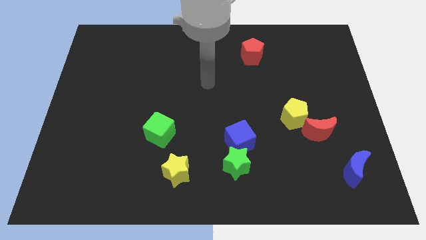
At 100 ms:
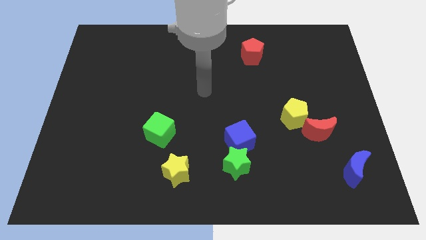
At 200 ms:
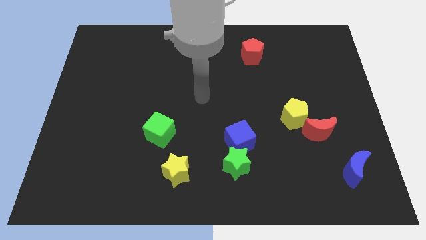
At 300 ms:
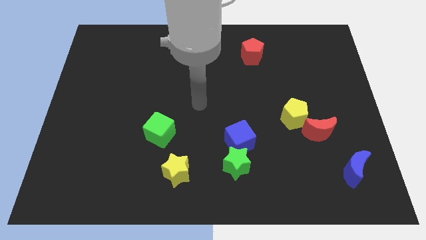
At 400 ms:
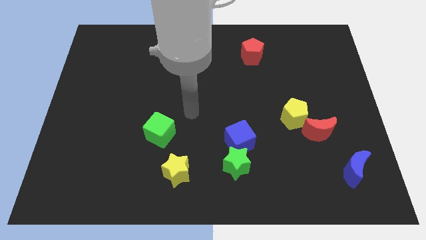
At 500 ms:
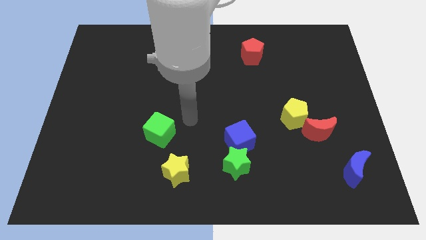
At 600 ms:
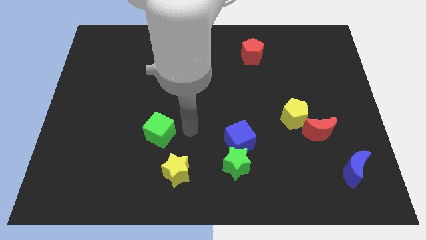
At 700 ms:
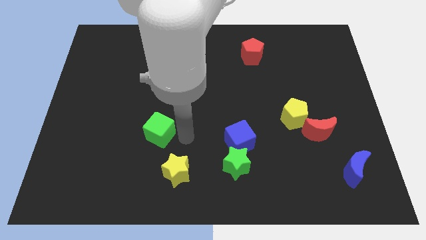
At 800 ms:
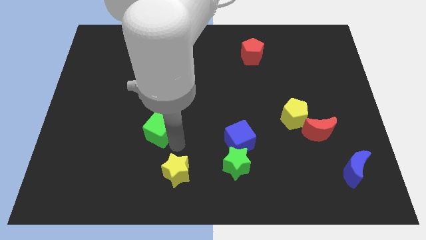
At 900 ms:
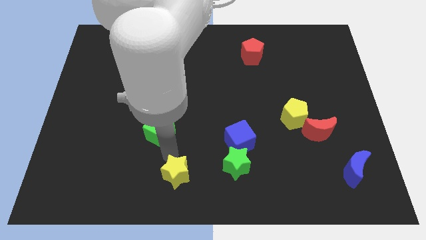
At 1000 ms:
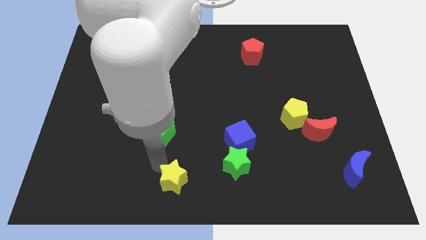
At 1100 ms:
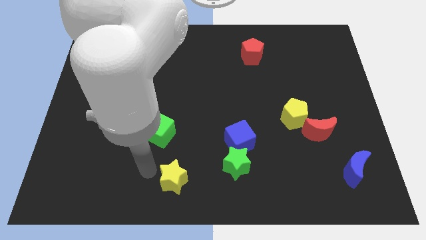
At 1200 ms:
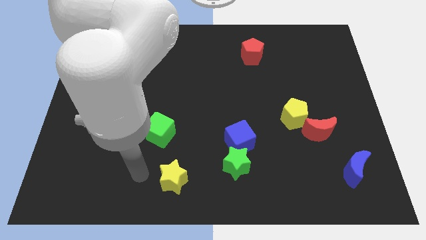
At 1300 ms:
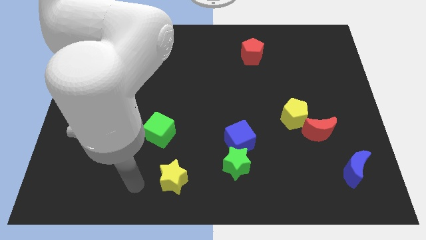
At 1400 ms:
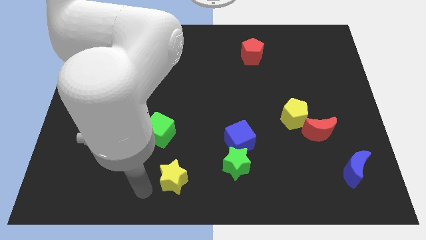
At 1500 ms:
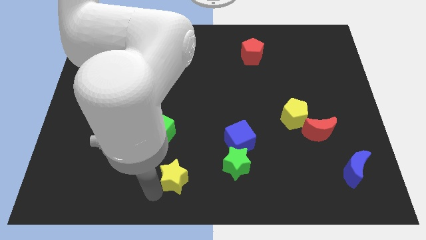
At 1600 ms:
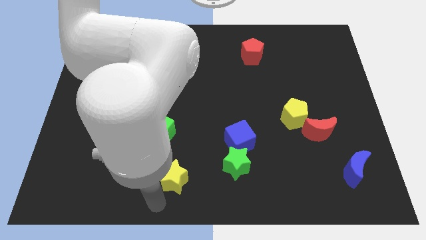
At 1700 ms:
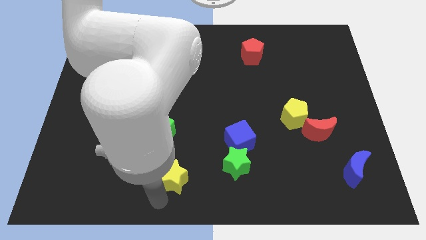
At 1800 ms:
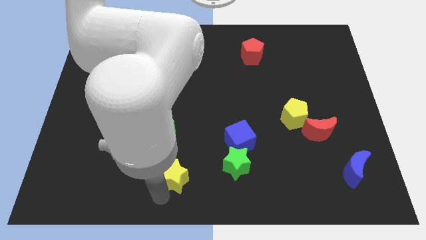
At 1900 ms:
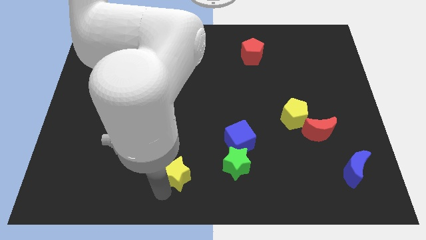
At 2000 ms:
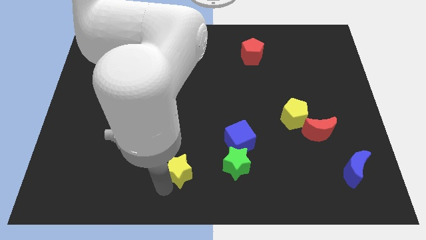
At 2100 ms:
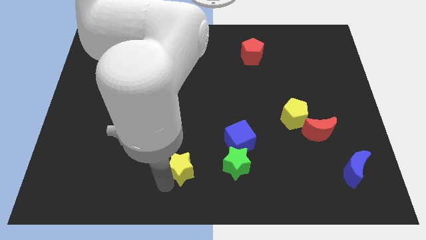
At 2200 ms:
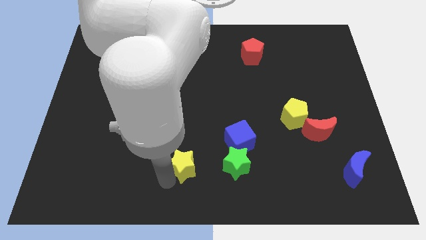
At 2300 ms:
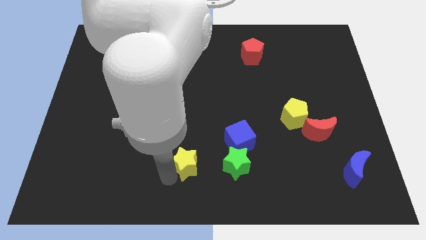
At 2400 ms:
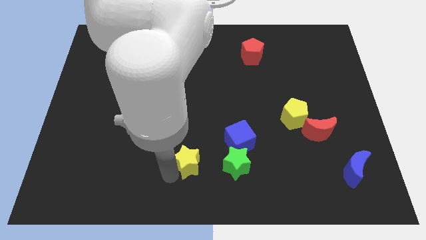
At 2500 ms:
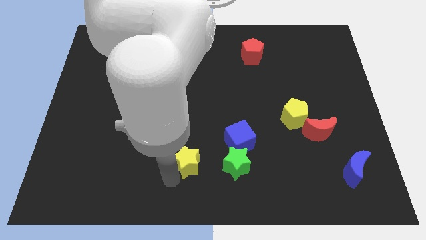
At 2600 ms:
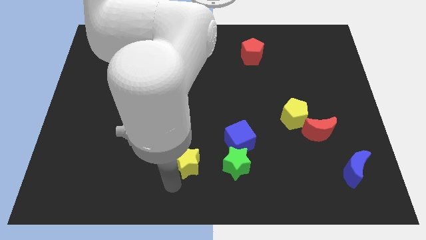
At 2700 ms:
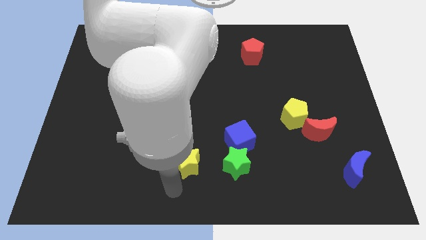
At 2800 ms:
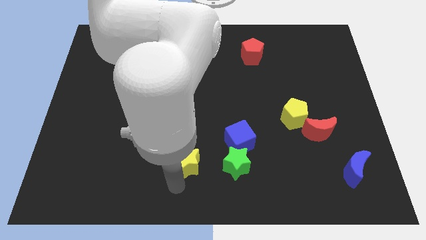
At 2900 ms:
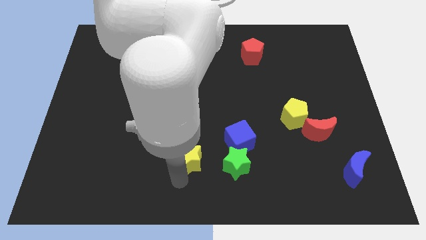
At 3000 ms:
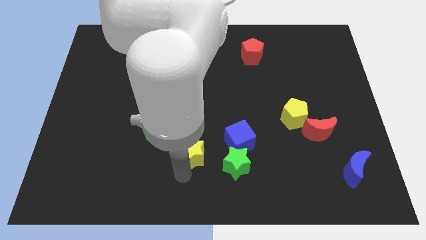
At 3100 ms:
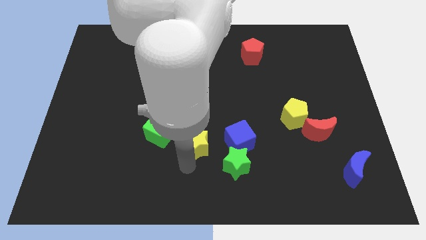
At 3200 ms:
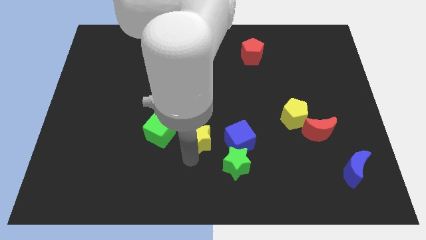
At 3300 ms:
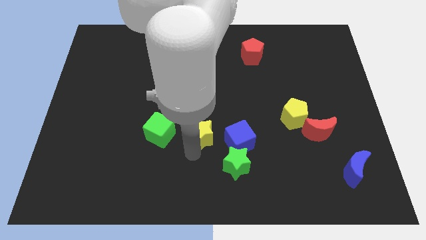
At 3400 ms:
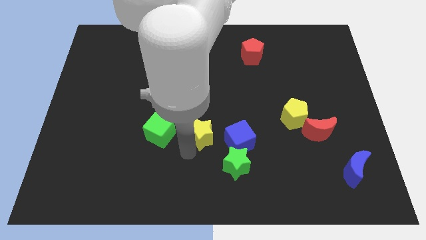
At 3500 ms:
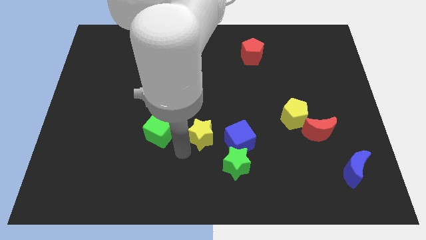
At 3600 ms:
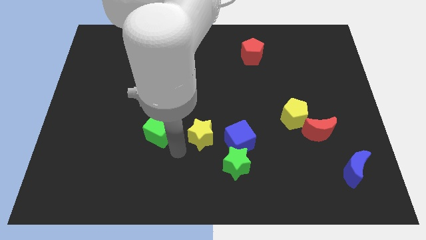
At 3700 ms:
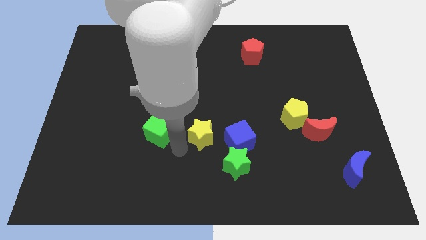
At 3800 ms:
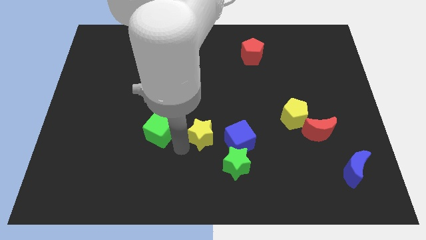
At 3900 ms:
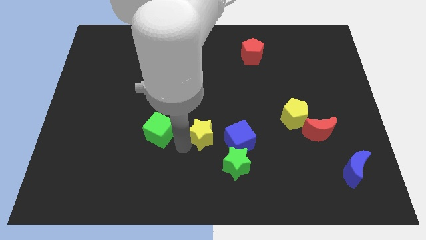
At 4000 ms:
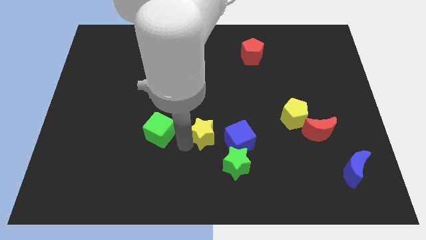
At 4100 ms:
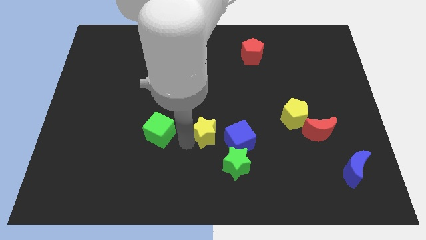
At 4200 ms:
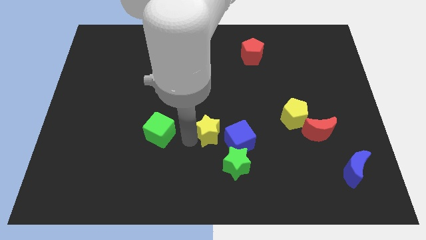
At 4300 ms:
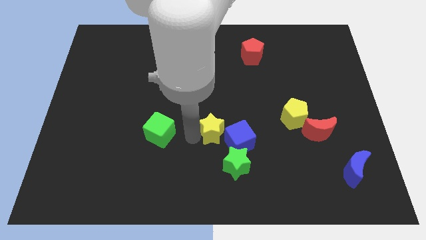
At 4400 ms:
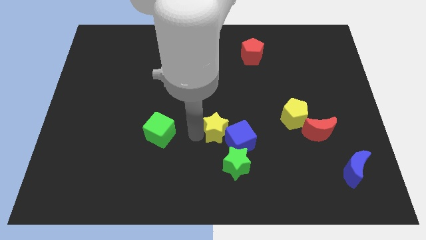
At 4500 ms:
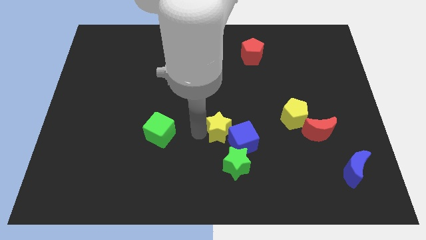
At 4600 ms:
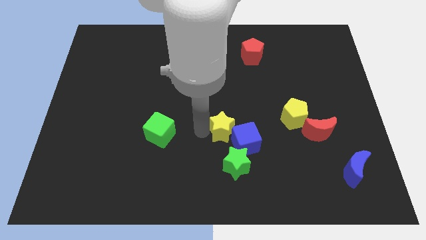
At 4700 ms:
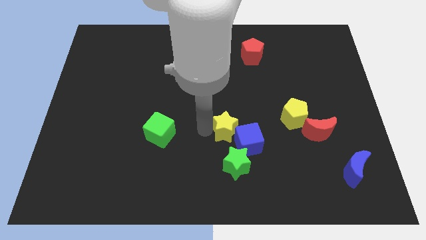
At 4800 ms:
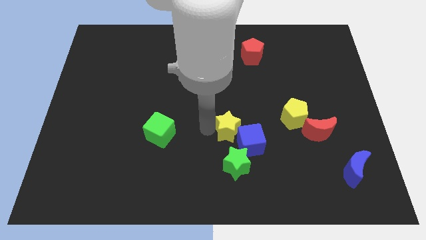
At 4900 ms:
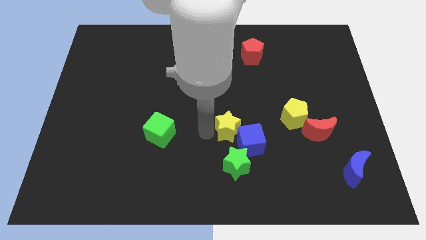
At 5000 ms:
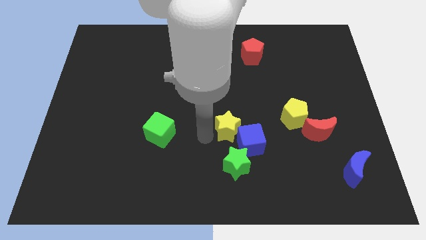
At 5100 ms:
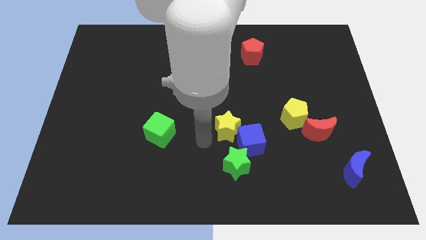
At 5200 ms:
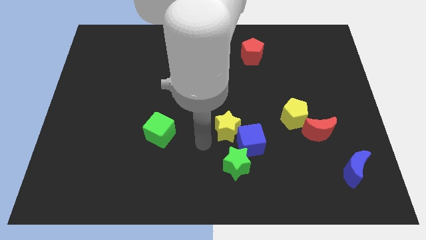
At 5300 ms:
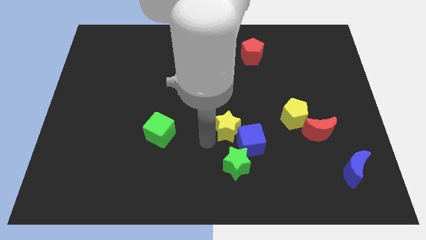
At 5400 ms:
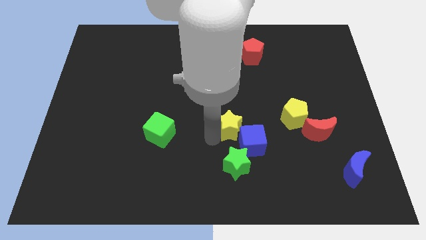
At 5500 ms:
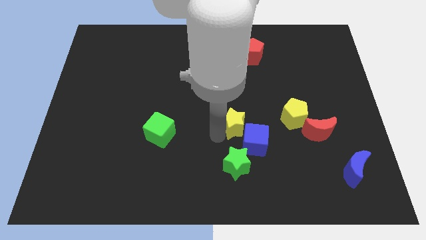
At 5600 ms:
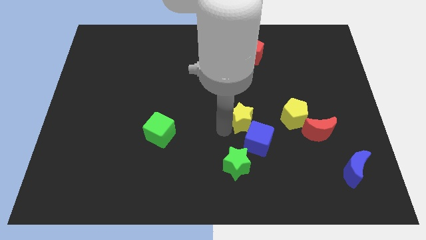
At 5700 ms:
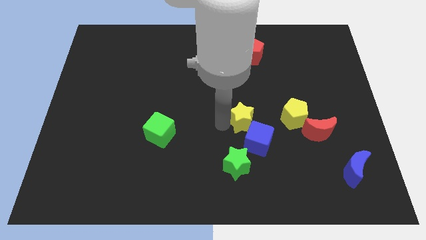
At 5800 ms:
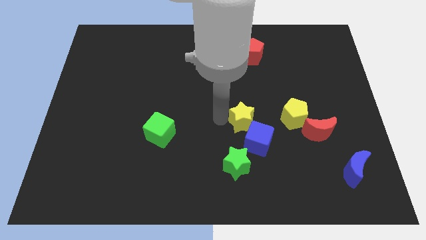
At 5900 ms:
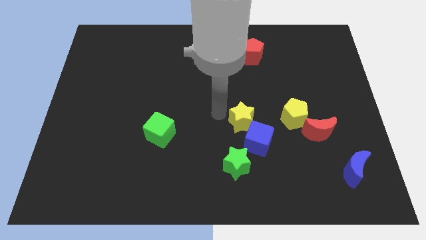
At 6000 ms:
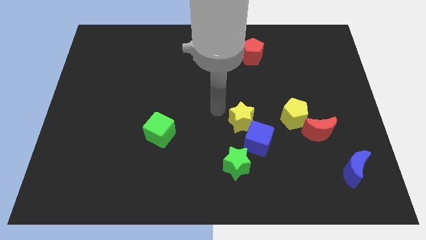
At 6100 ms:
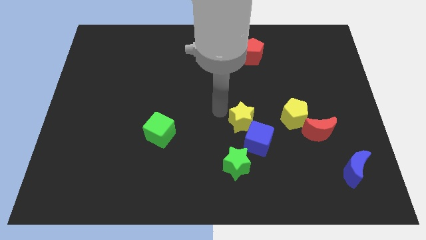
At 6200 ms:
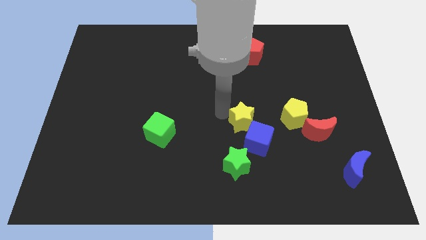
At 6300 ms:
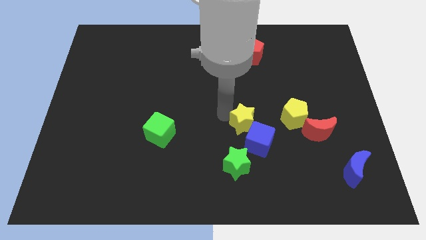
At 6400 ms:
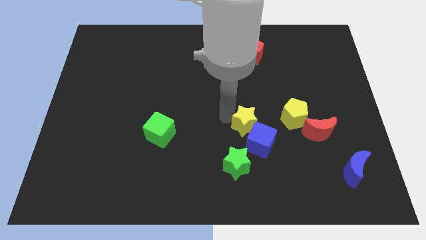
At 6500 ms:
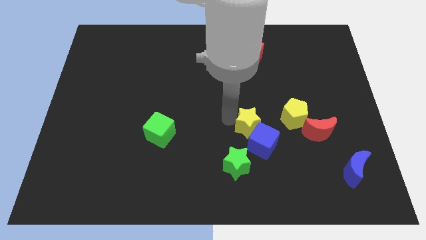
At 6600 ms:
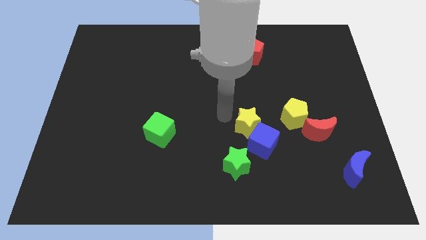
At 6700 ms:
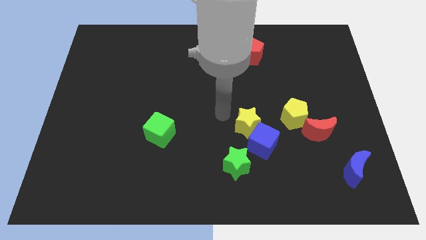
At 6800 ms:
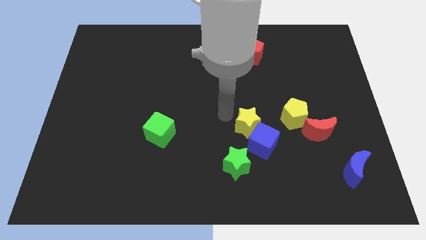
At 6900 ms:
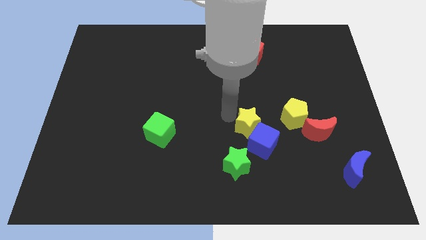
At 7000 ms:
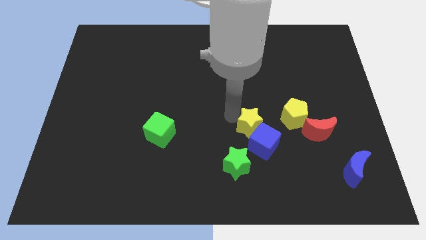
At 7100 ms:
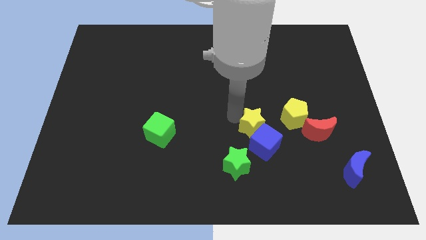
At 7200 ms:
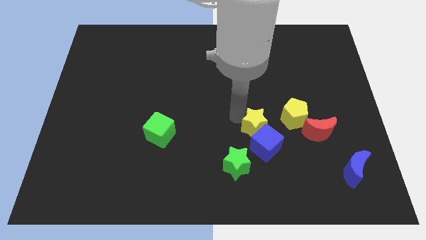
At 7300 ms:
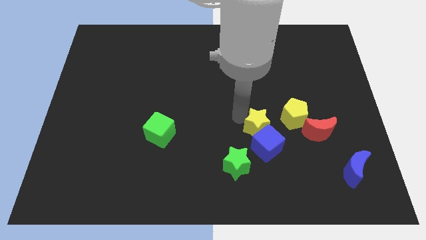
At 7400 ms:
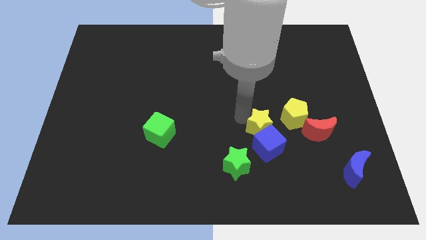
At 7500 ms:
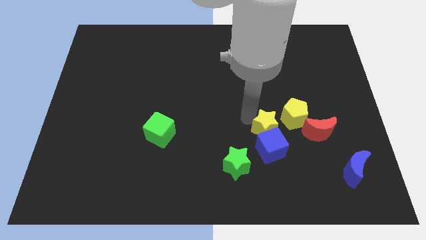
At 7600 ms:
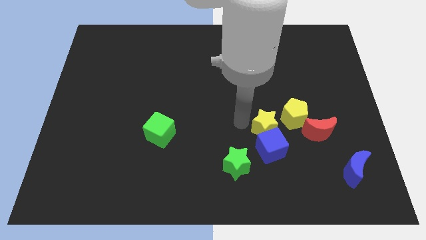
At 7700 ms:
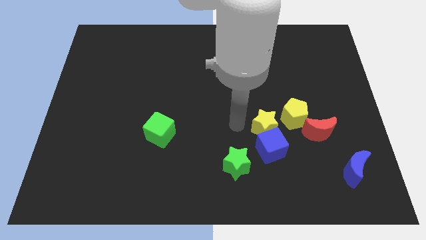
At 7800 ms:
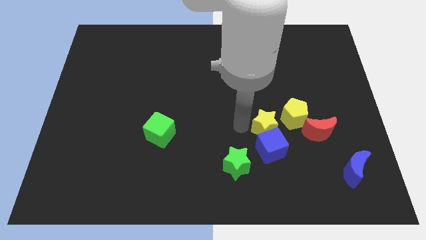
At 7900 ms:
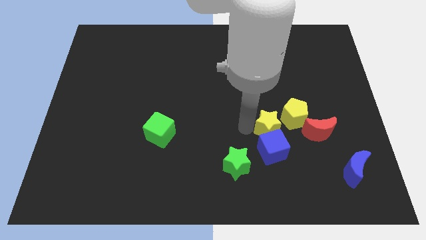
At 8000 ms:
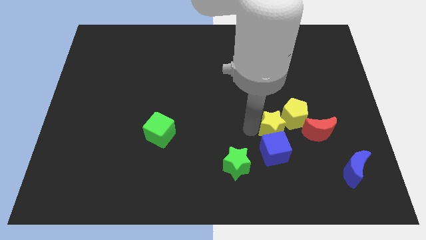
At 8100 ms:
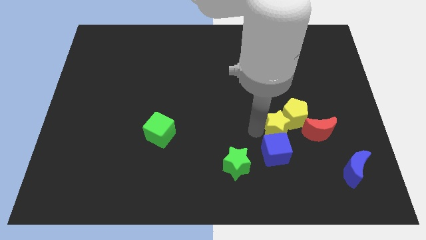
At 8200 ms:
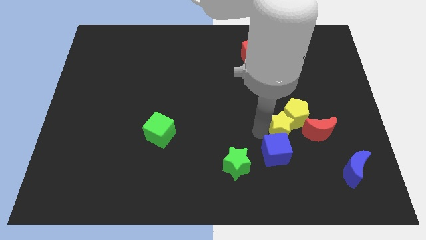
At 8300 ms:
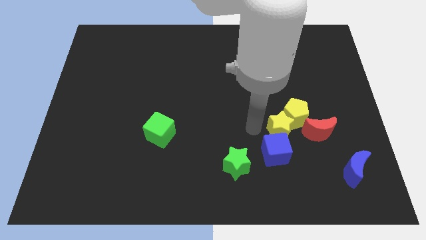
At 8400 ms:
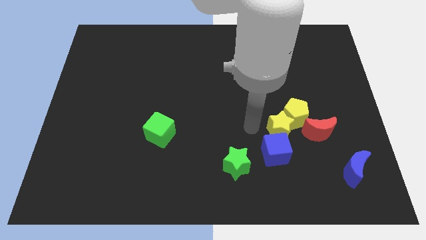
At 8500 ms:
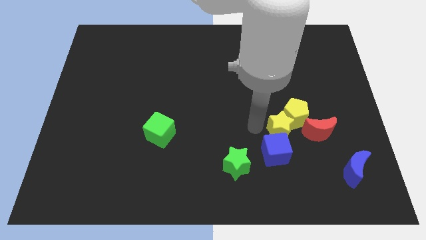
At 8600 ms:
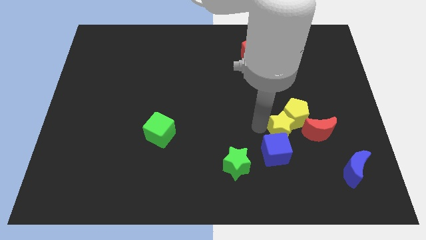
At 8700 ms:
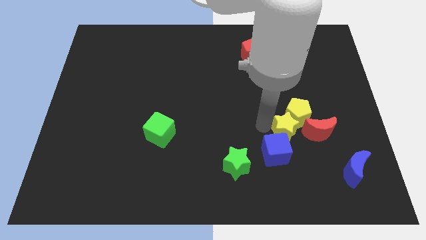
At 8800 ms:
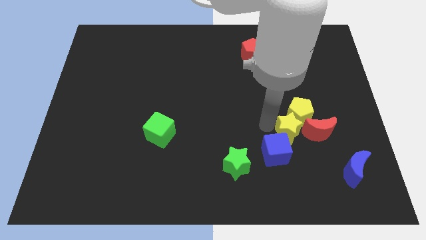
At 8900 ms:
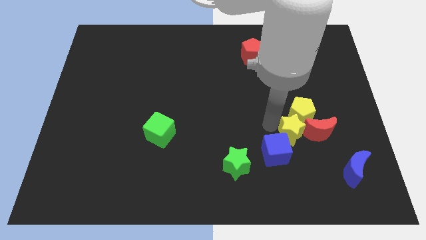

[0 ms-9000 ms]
put the yellow star close to the red moon
